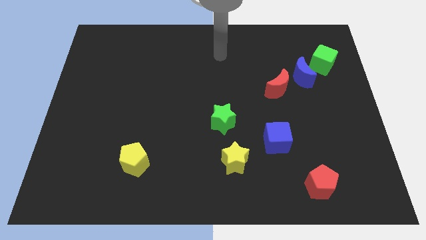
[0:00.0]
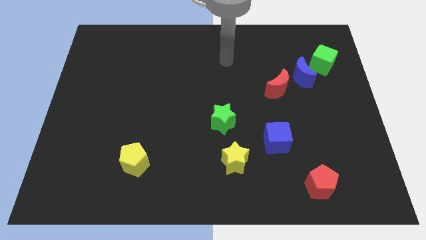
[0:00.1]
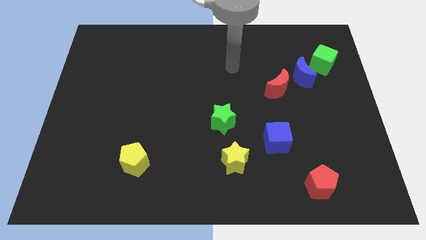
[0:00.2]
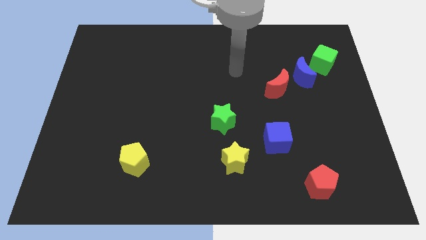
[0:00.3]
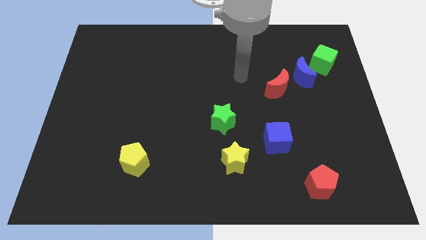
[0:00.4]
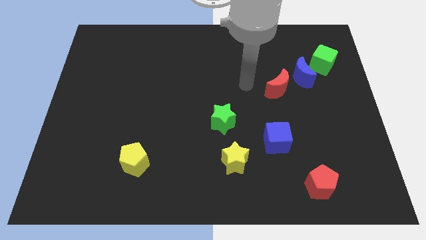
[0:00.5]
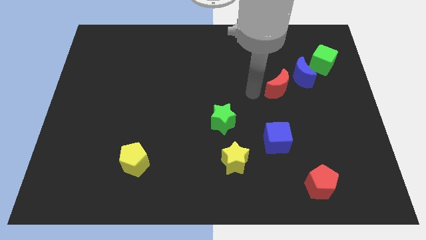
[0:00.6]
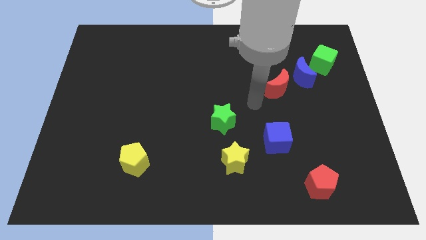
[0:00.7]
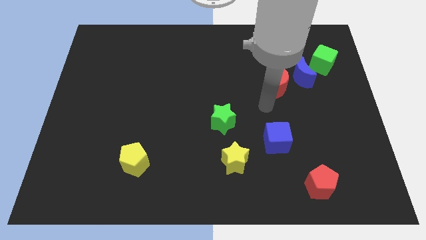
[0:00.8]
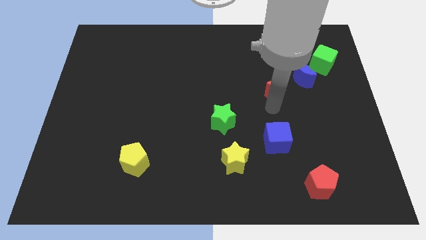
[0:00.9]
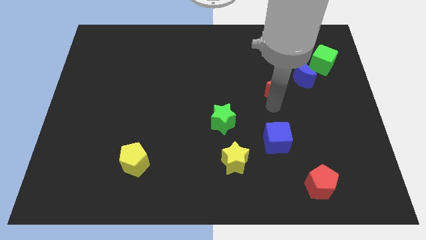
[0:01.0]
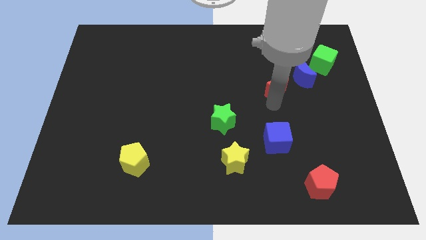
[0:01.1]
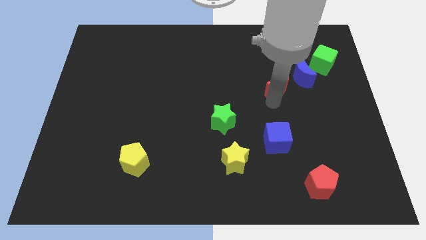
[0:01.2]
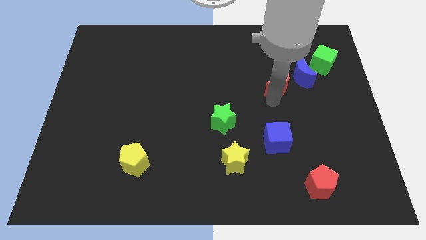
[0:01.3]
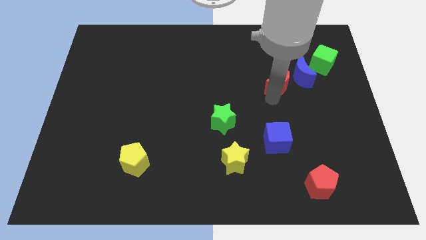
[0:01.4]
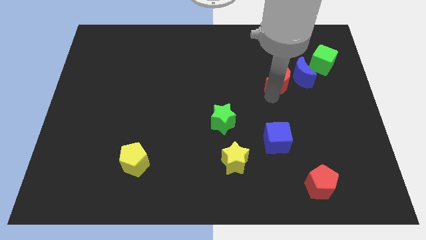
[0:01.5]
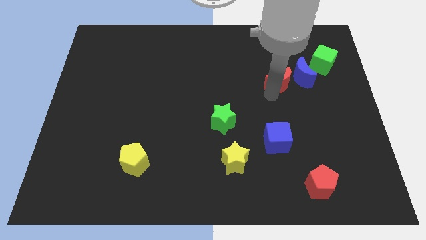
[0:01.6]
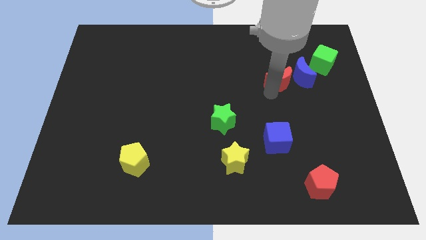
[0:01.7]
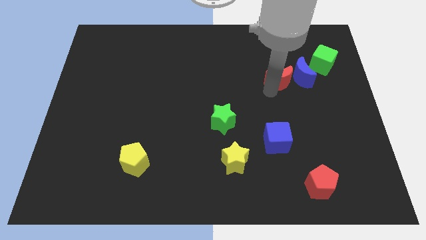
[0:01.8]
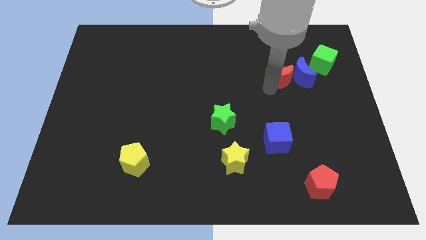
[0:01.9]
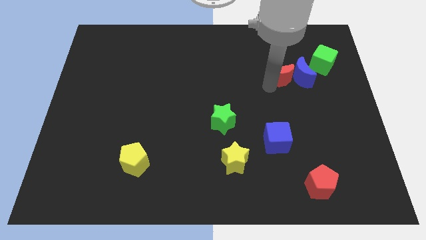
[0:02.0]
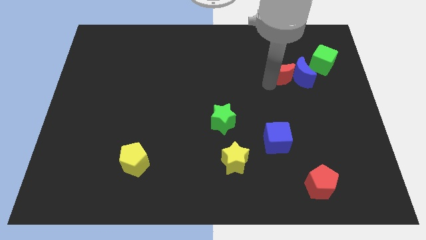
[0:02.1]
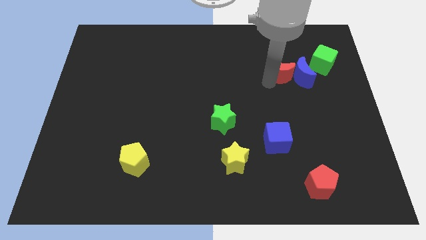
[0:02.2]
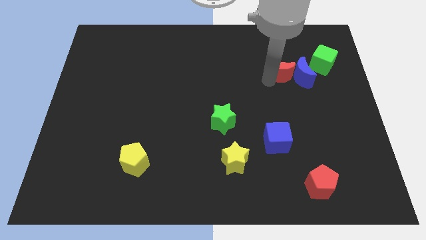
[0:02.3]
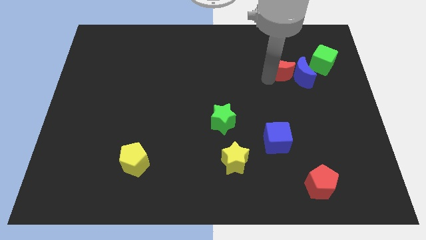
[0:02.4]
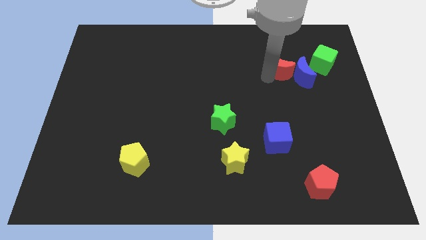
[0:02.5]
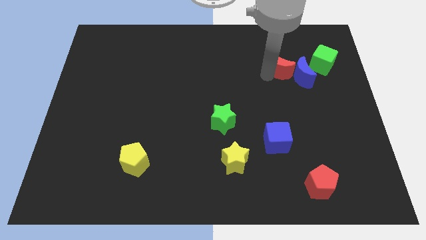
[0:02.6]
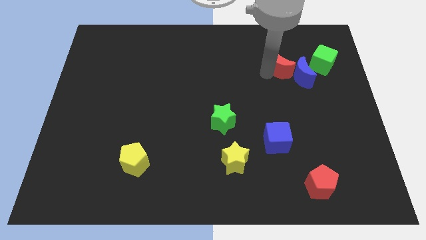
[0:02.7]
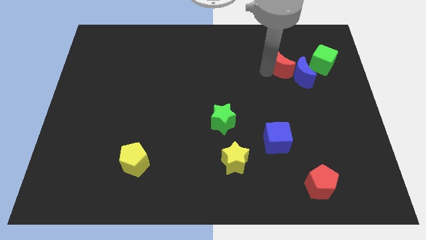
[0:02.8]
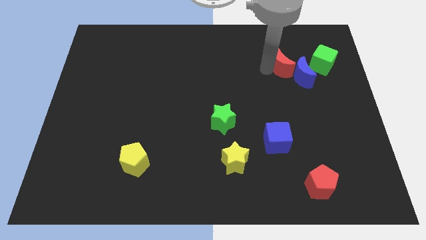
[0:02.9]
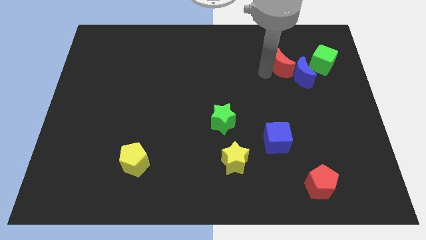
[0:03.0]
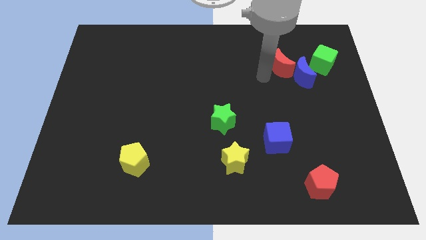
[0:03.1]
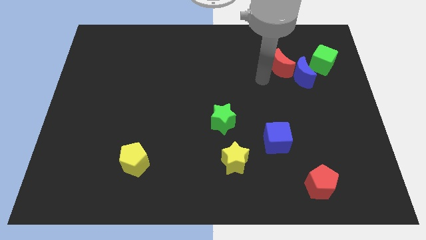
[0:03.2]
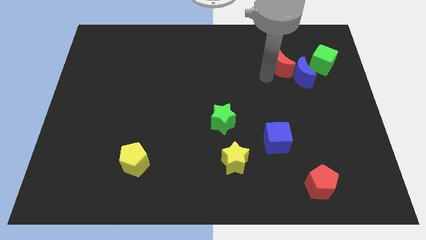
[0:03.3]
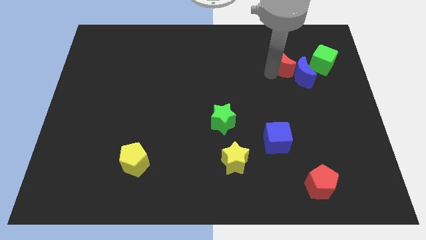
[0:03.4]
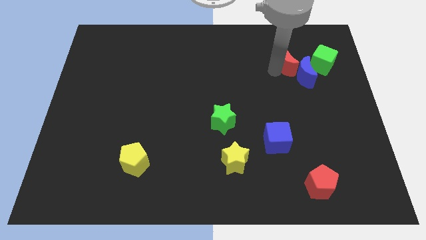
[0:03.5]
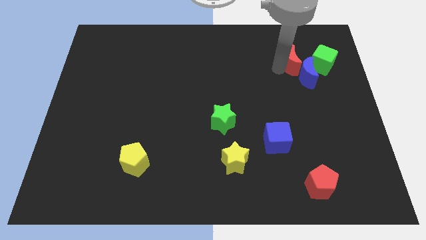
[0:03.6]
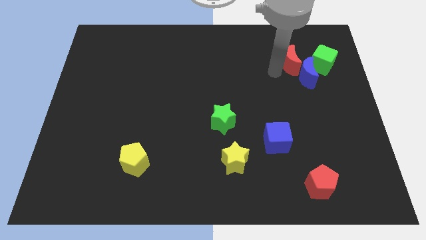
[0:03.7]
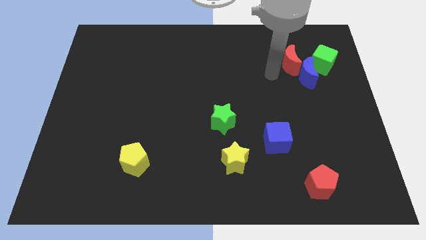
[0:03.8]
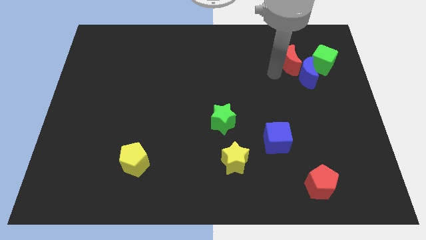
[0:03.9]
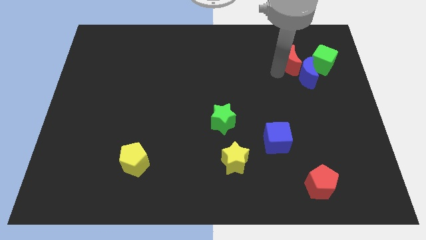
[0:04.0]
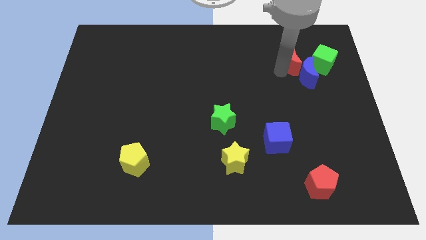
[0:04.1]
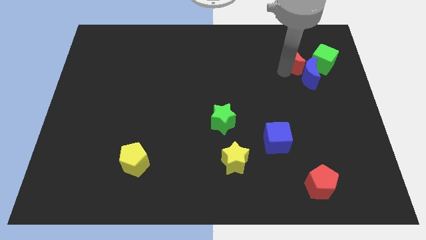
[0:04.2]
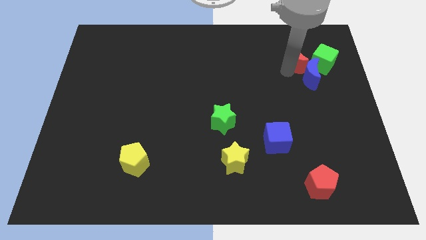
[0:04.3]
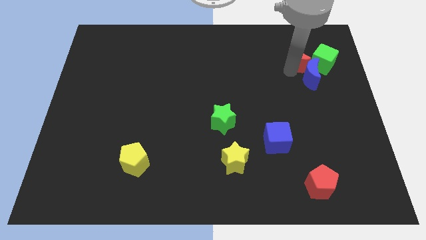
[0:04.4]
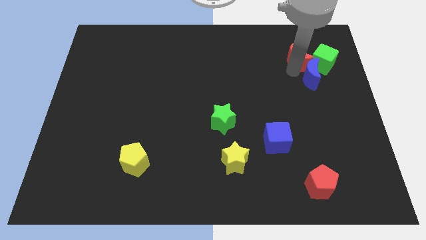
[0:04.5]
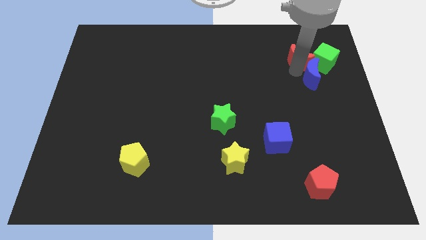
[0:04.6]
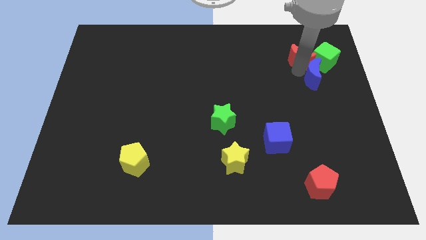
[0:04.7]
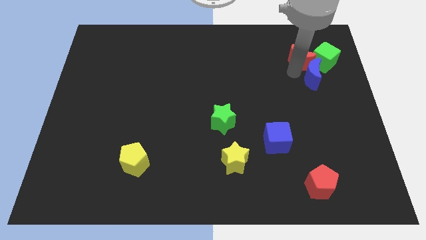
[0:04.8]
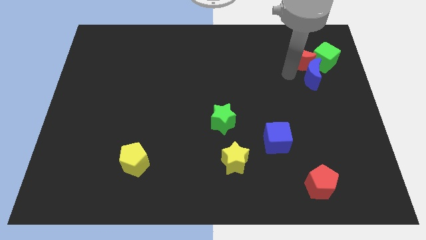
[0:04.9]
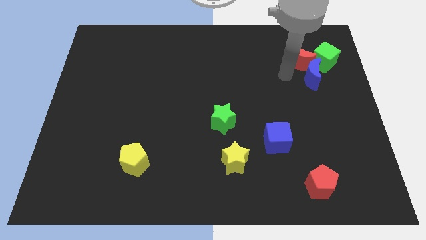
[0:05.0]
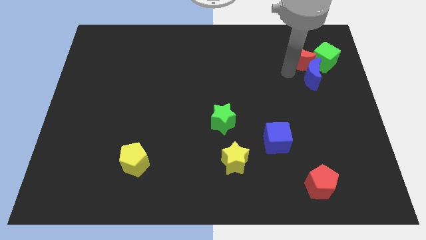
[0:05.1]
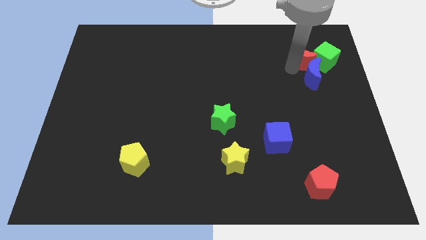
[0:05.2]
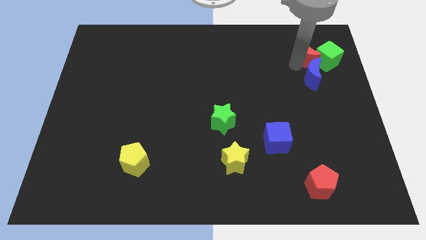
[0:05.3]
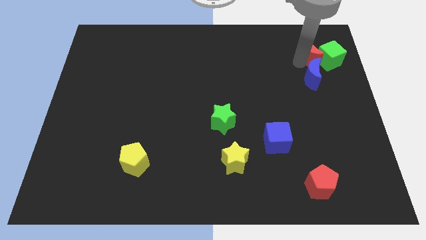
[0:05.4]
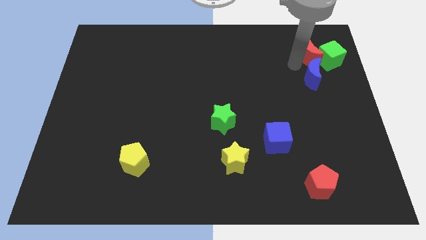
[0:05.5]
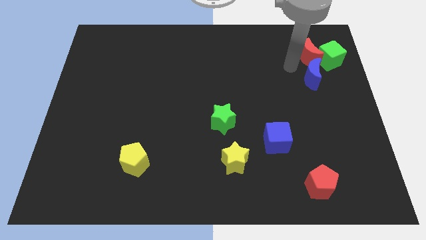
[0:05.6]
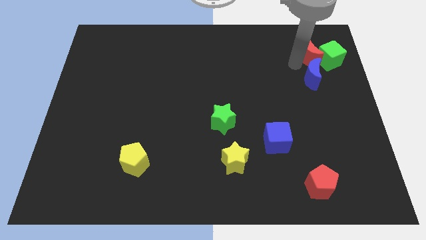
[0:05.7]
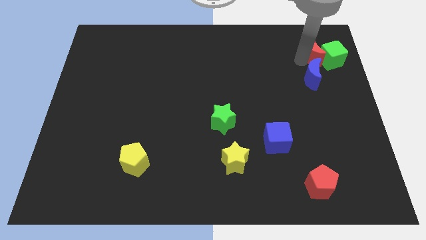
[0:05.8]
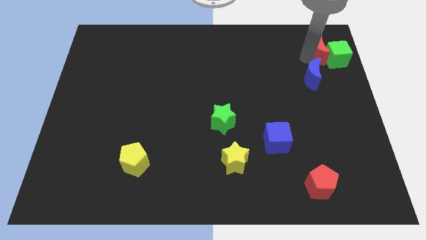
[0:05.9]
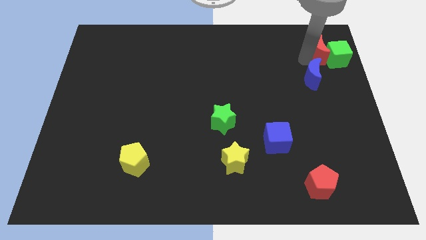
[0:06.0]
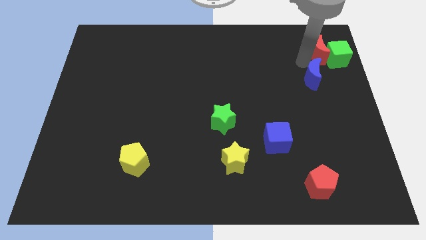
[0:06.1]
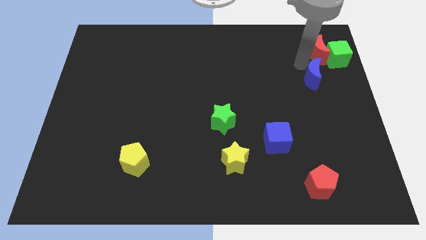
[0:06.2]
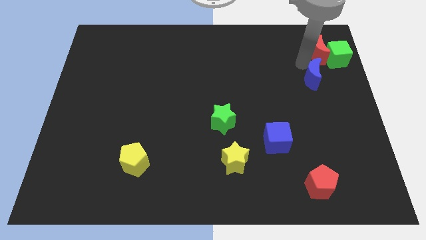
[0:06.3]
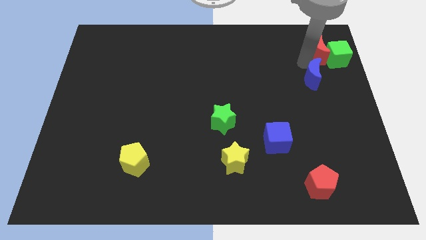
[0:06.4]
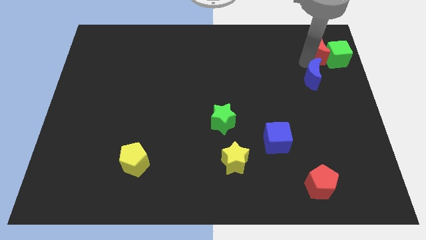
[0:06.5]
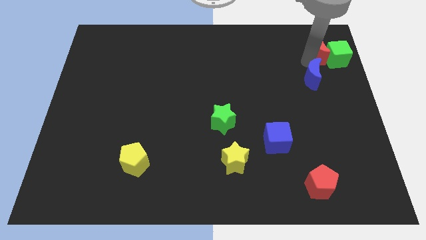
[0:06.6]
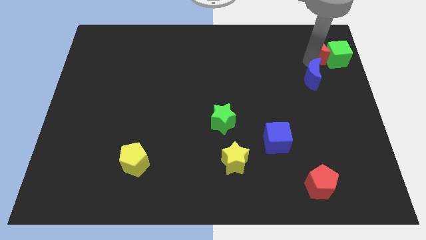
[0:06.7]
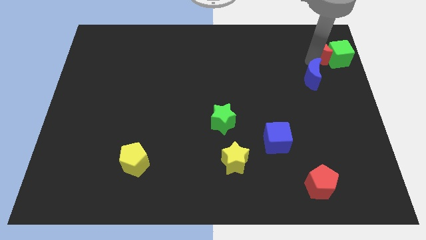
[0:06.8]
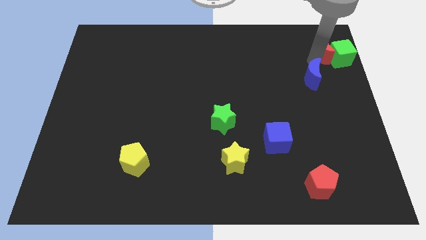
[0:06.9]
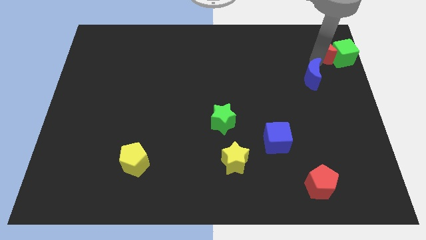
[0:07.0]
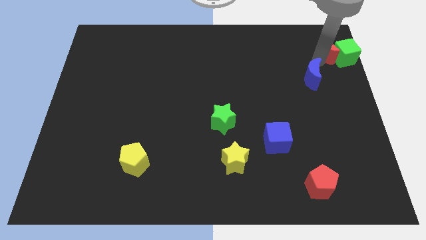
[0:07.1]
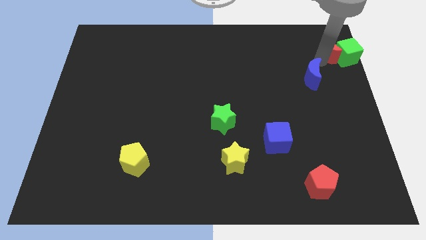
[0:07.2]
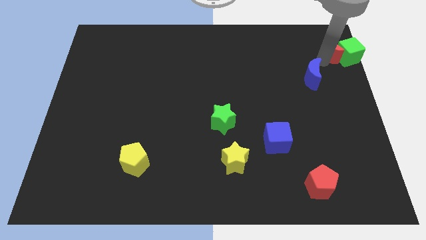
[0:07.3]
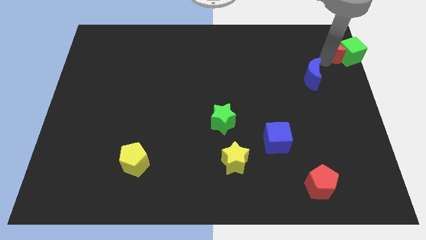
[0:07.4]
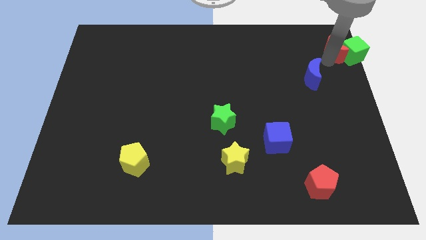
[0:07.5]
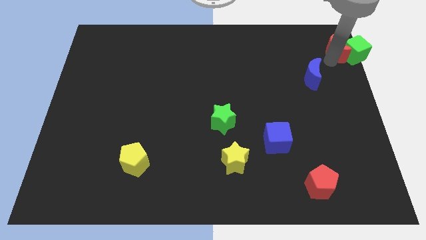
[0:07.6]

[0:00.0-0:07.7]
put the red moon to the top right of the board
